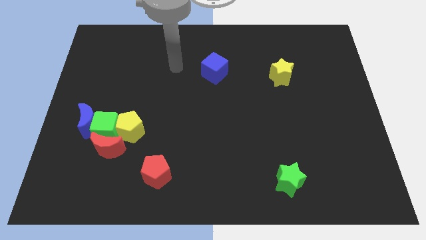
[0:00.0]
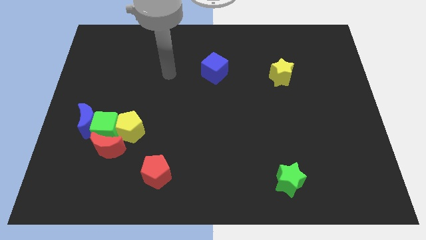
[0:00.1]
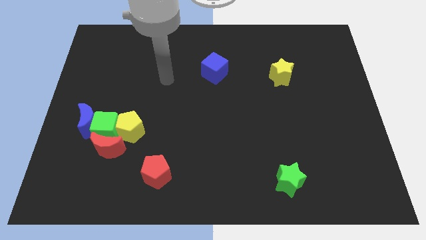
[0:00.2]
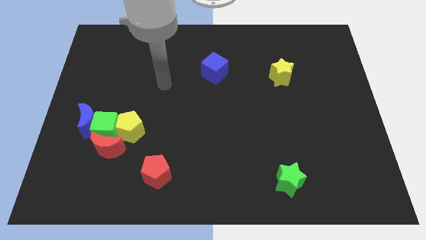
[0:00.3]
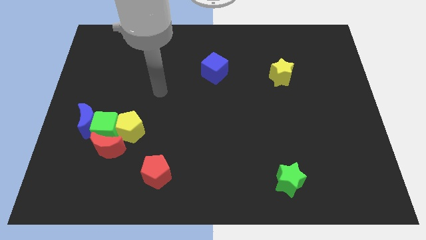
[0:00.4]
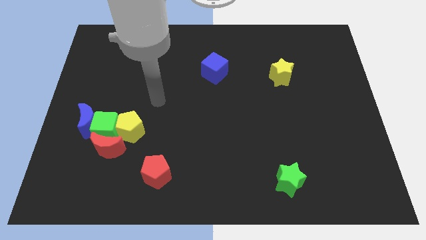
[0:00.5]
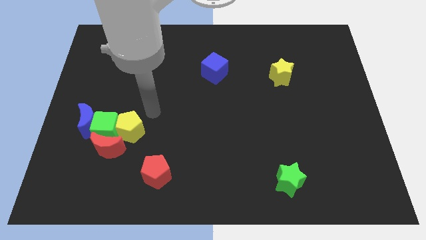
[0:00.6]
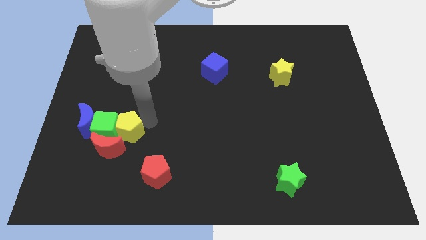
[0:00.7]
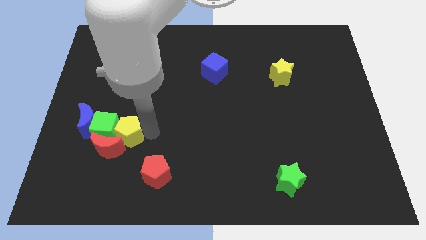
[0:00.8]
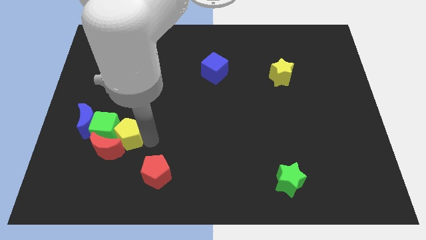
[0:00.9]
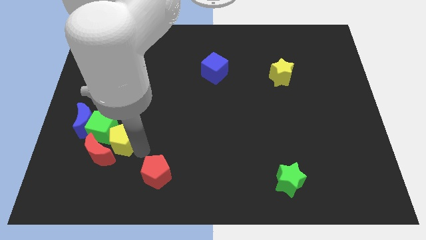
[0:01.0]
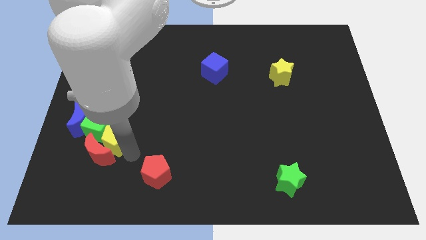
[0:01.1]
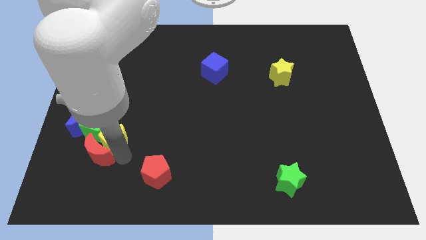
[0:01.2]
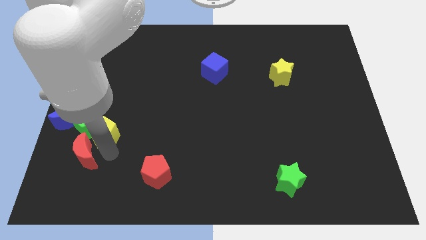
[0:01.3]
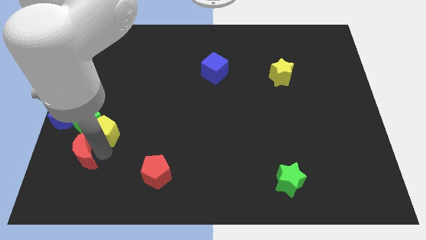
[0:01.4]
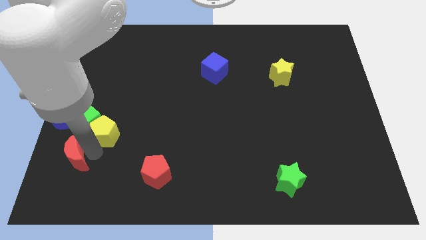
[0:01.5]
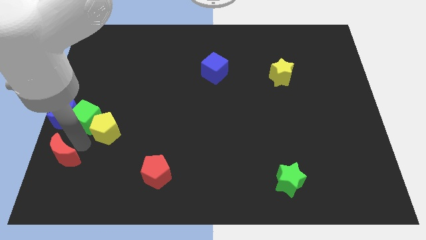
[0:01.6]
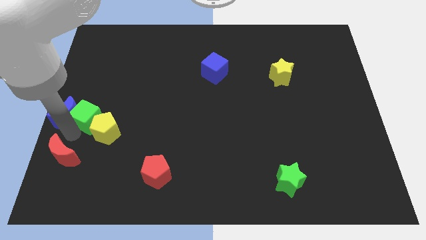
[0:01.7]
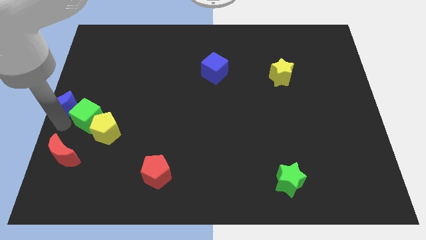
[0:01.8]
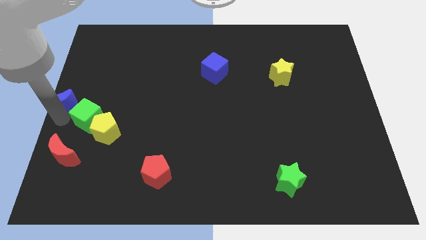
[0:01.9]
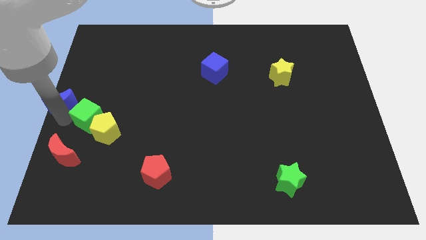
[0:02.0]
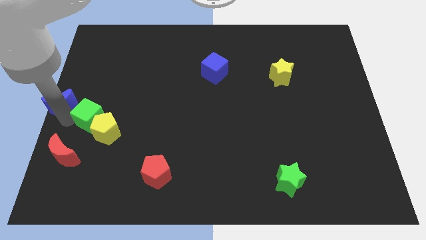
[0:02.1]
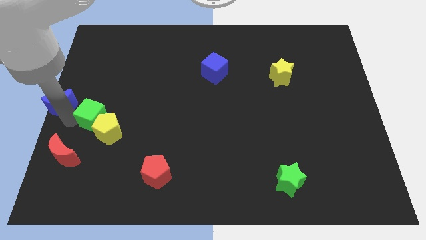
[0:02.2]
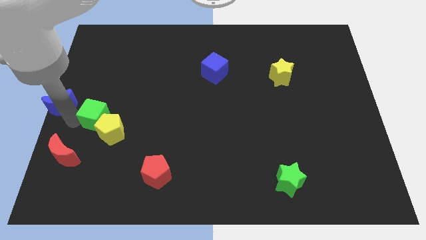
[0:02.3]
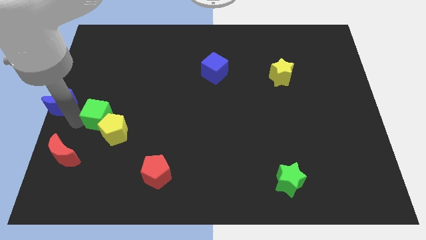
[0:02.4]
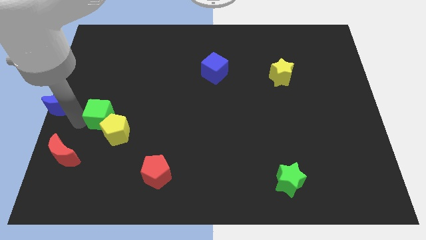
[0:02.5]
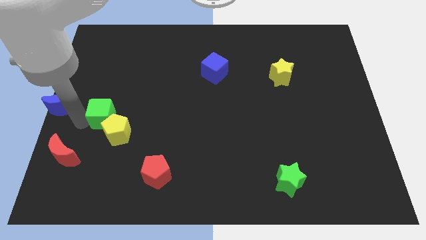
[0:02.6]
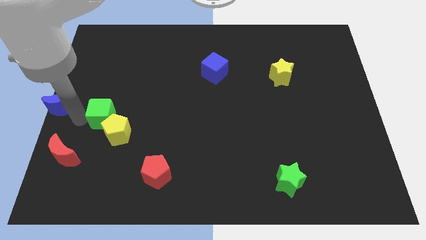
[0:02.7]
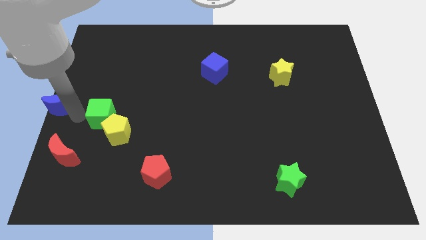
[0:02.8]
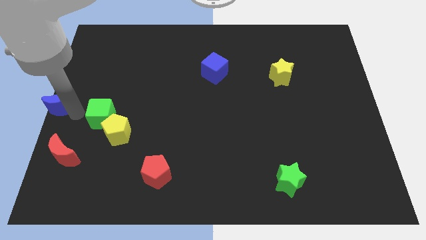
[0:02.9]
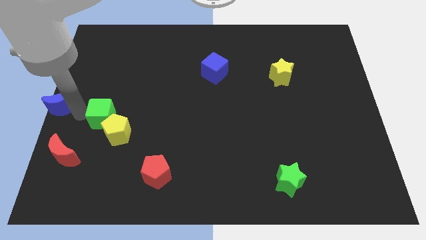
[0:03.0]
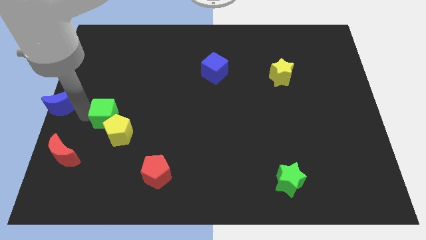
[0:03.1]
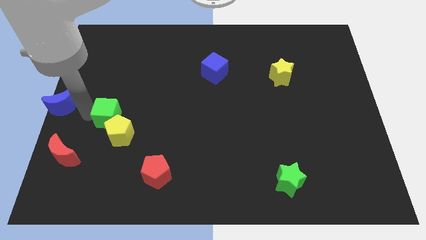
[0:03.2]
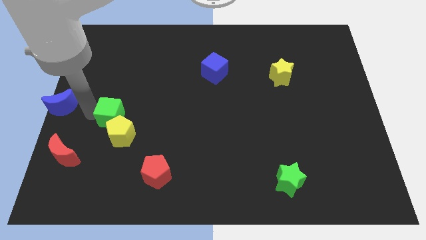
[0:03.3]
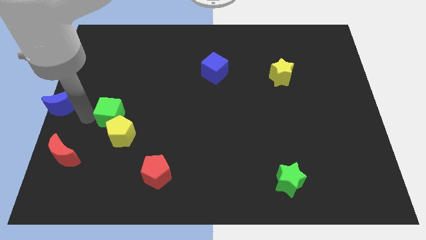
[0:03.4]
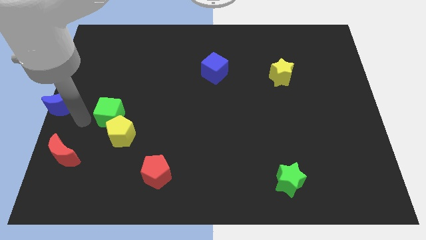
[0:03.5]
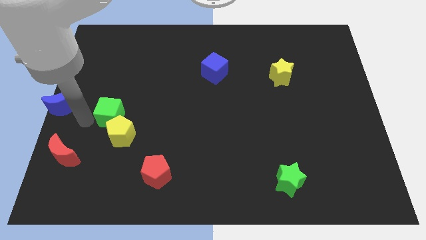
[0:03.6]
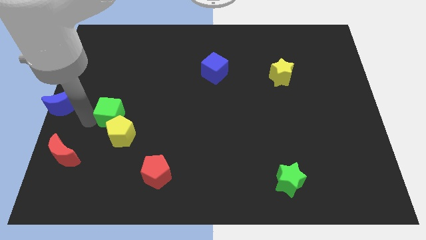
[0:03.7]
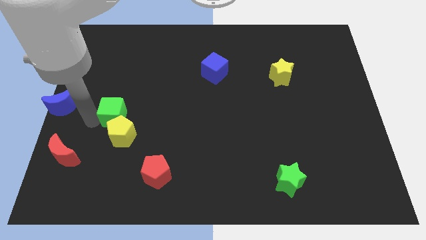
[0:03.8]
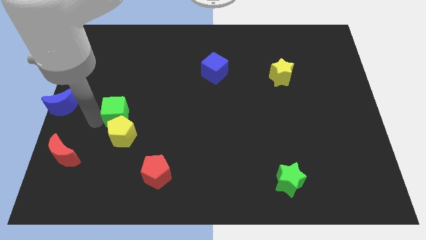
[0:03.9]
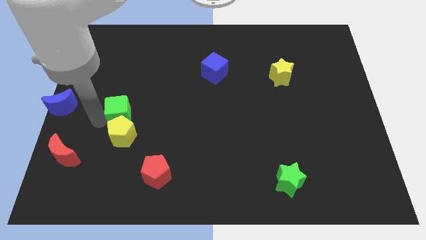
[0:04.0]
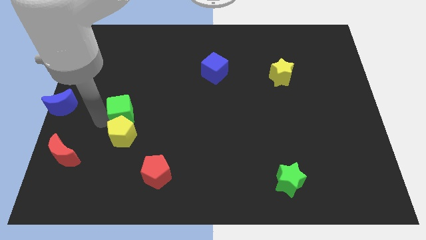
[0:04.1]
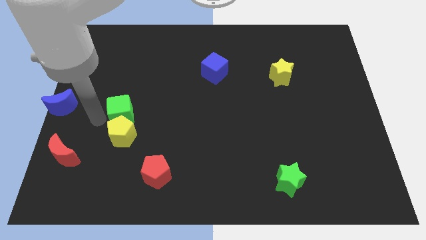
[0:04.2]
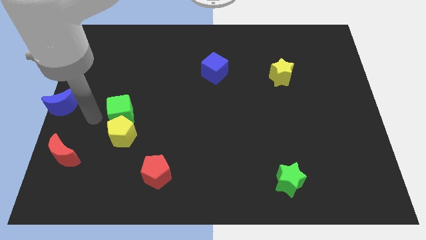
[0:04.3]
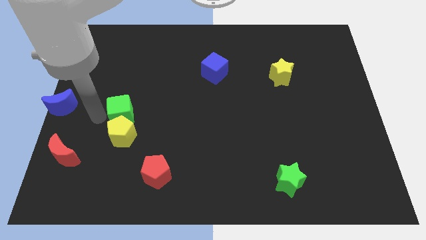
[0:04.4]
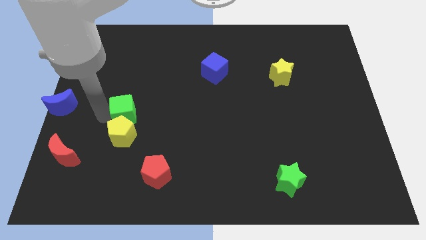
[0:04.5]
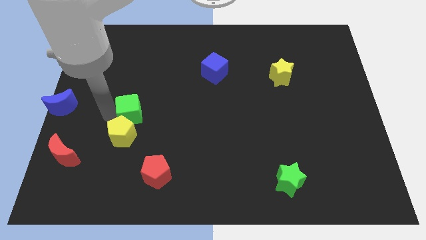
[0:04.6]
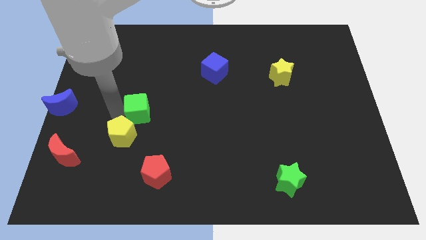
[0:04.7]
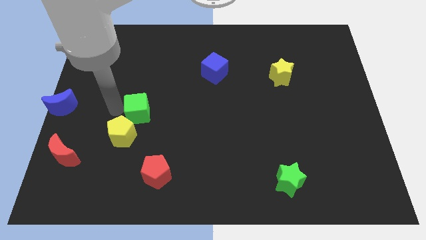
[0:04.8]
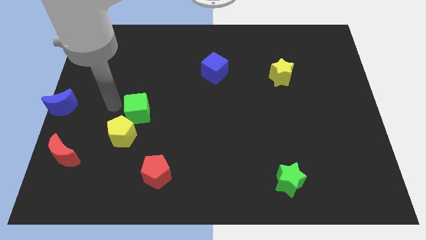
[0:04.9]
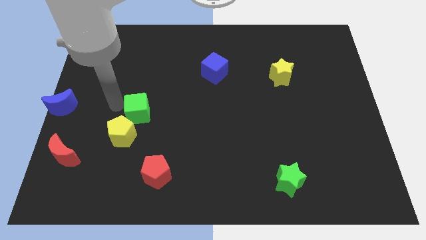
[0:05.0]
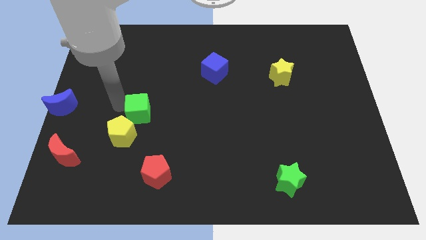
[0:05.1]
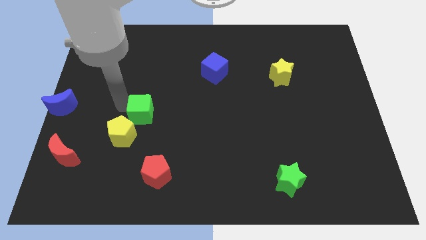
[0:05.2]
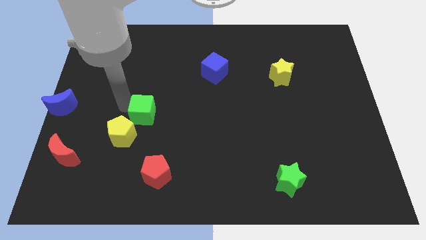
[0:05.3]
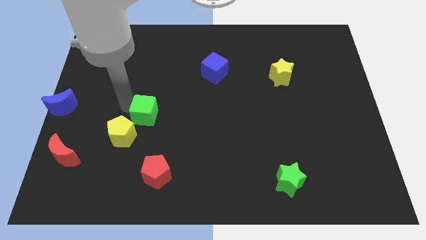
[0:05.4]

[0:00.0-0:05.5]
move the green cube slightly right

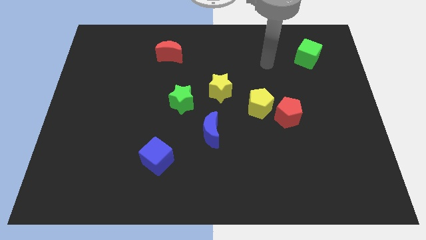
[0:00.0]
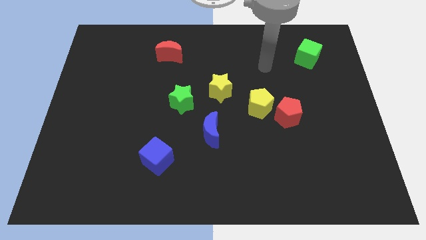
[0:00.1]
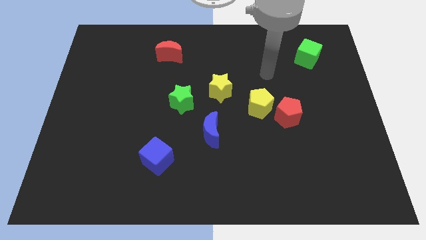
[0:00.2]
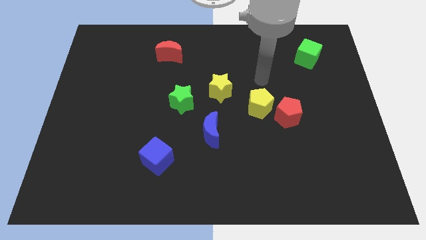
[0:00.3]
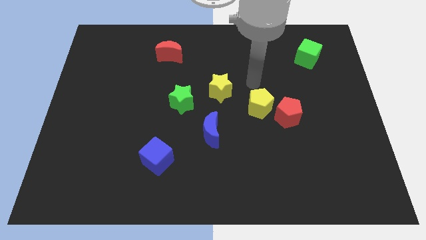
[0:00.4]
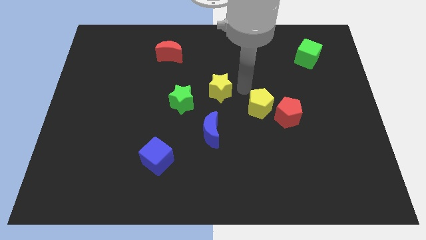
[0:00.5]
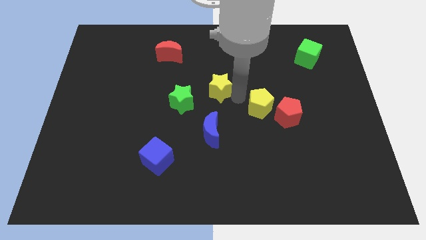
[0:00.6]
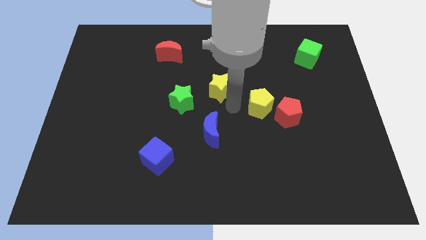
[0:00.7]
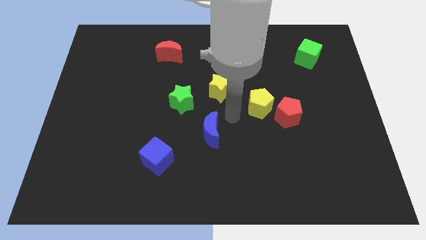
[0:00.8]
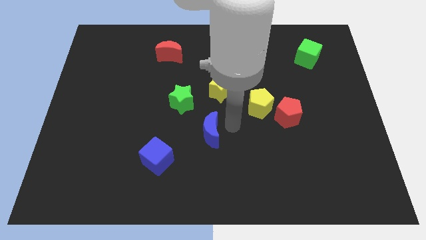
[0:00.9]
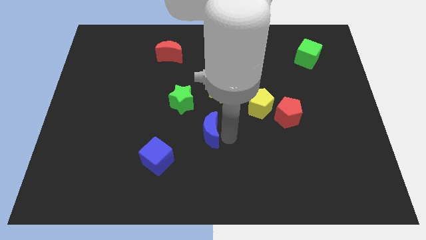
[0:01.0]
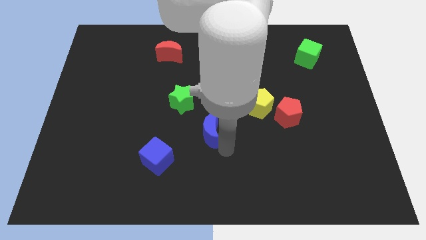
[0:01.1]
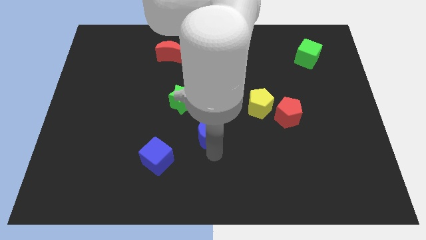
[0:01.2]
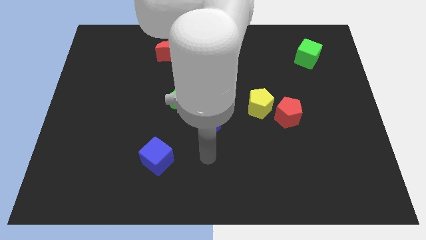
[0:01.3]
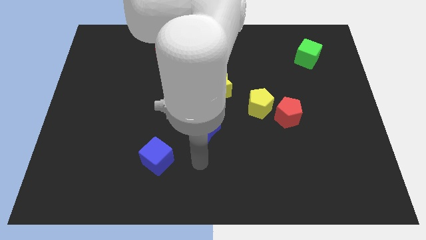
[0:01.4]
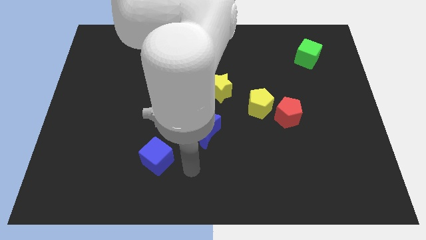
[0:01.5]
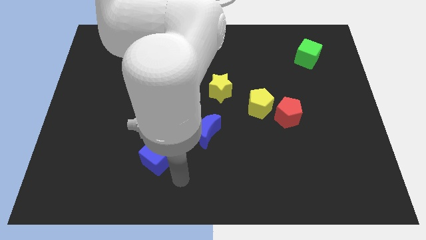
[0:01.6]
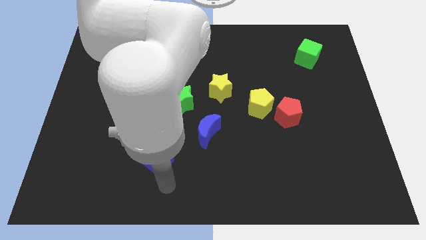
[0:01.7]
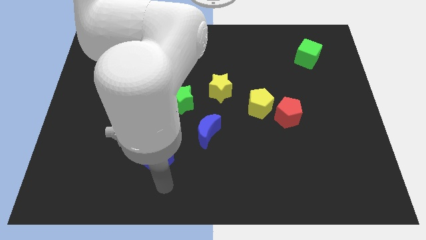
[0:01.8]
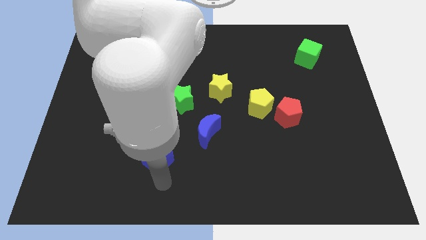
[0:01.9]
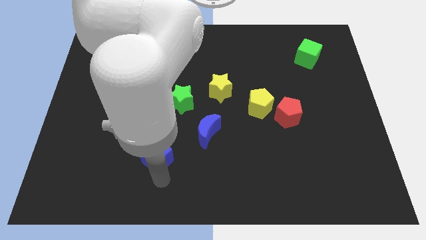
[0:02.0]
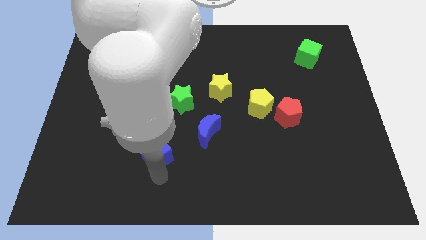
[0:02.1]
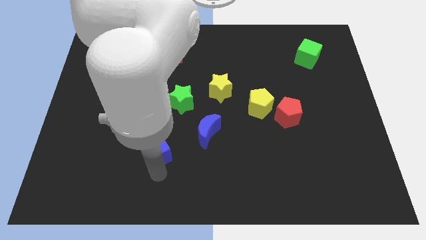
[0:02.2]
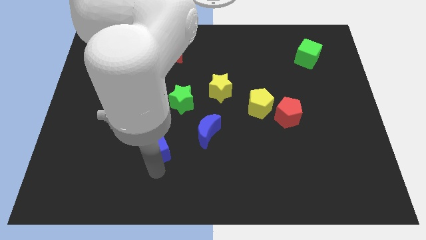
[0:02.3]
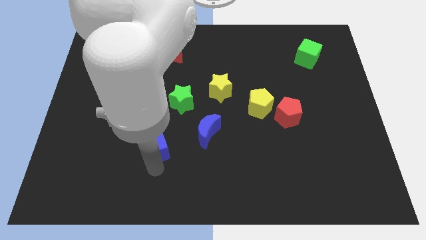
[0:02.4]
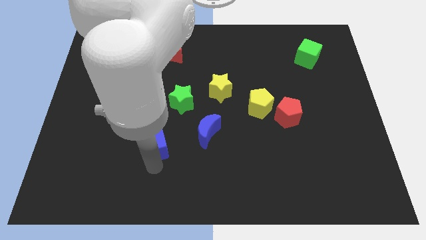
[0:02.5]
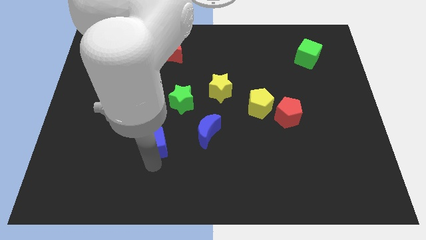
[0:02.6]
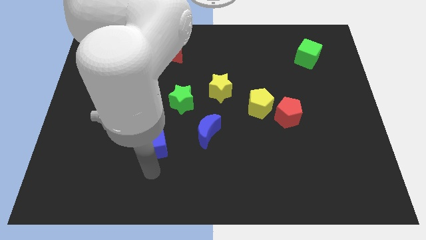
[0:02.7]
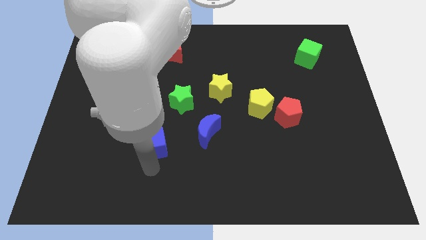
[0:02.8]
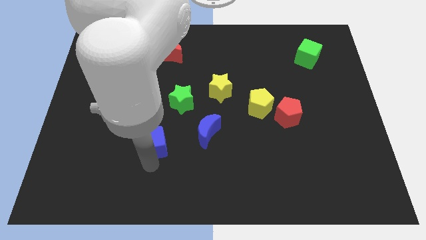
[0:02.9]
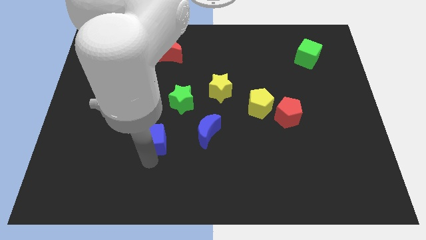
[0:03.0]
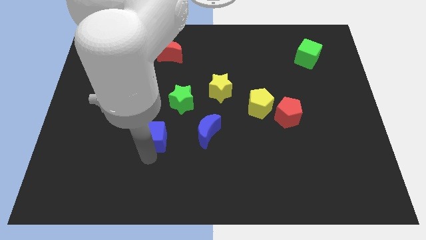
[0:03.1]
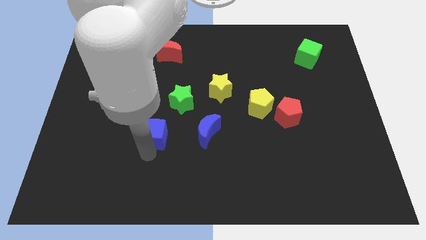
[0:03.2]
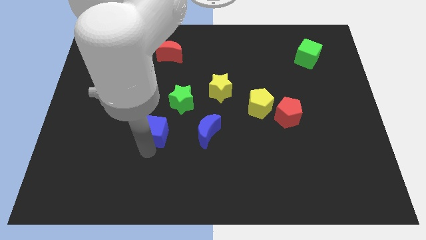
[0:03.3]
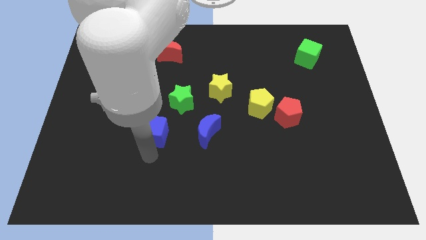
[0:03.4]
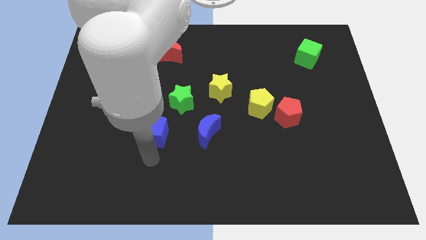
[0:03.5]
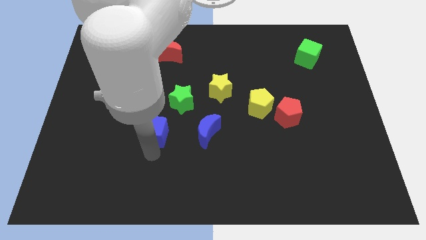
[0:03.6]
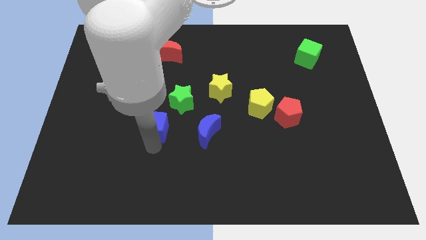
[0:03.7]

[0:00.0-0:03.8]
move the blue cube a little bit upwards
